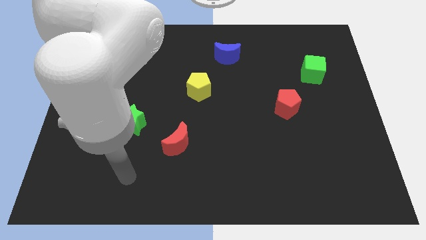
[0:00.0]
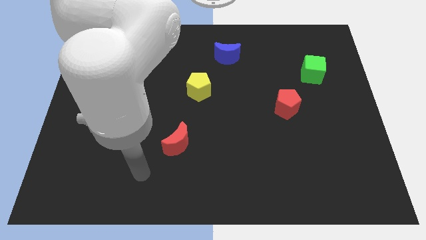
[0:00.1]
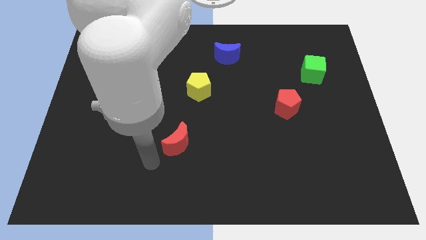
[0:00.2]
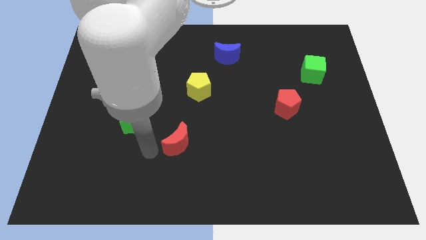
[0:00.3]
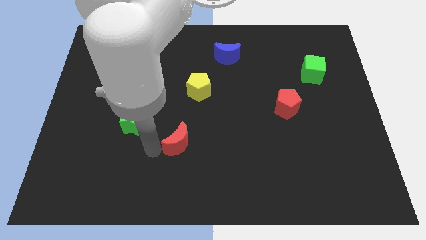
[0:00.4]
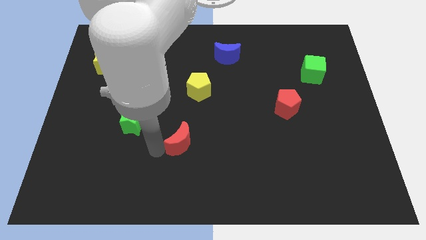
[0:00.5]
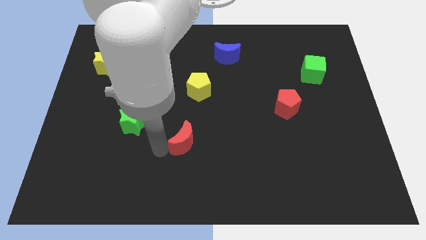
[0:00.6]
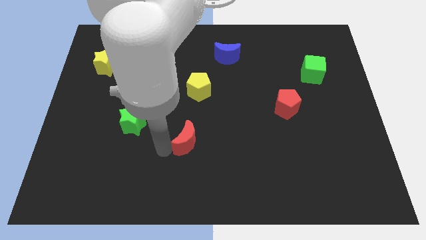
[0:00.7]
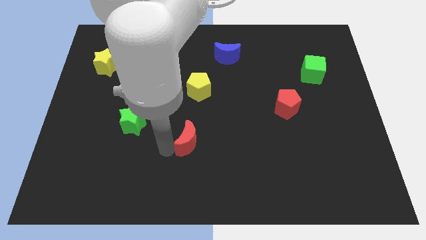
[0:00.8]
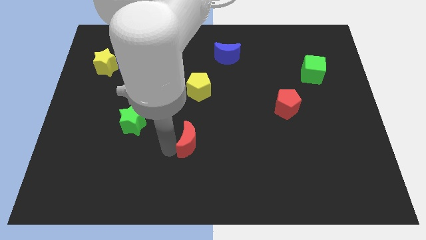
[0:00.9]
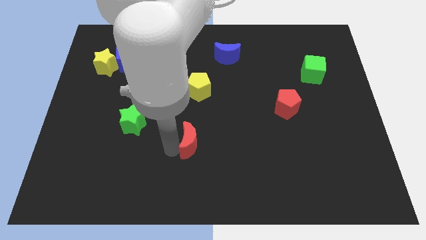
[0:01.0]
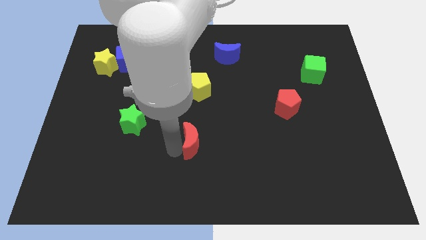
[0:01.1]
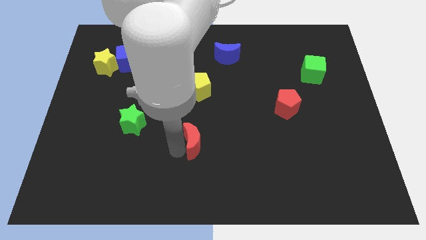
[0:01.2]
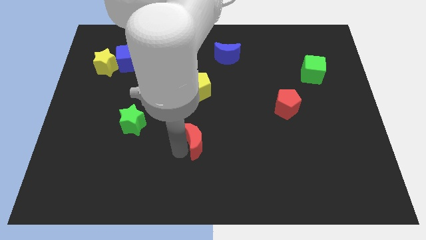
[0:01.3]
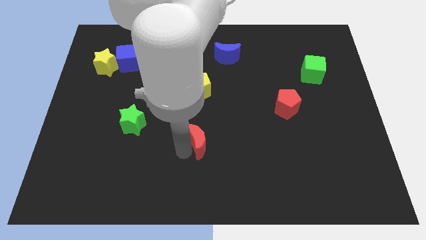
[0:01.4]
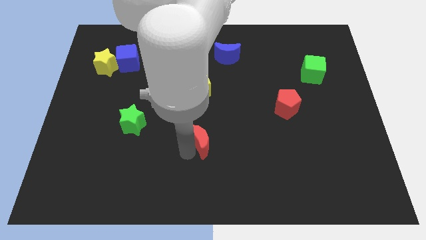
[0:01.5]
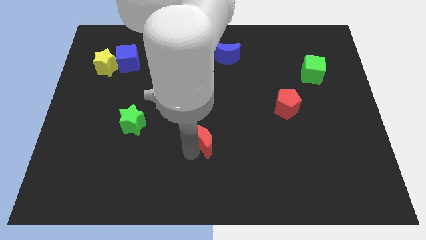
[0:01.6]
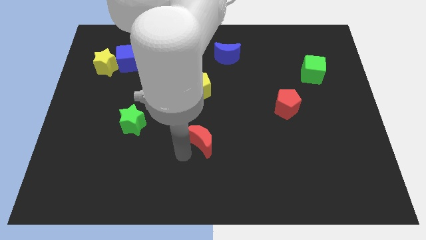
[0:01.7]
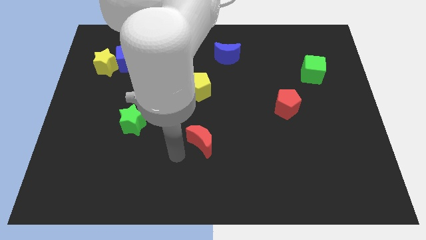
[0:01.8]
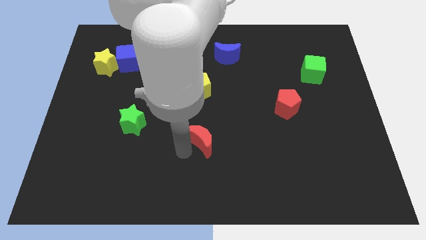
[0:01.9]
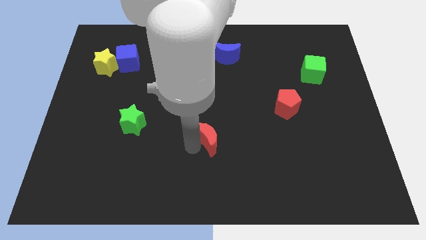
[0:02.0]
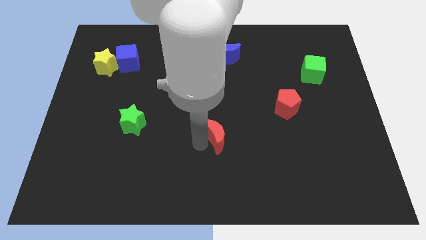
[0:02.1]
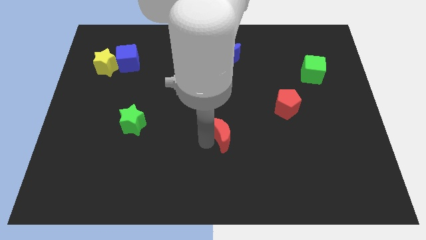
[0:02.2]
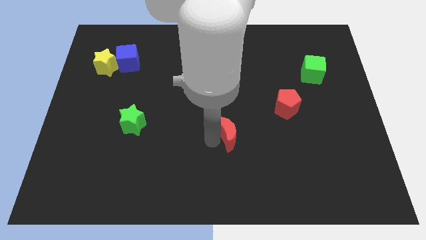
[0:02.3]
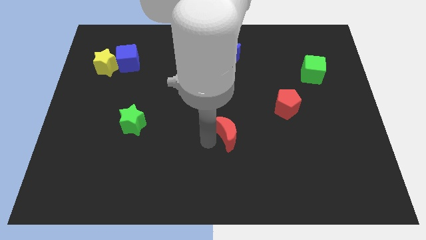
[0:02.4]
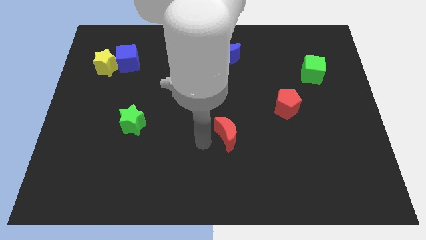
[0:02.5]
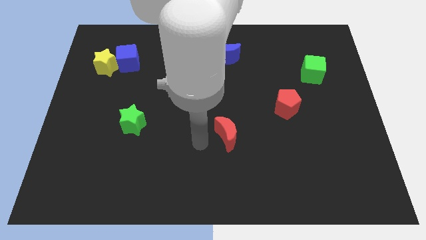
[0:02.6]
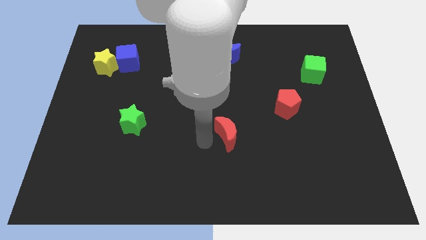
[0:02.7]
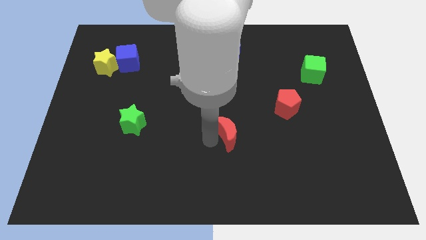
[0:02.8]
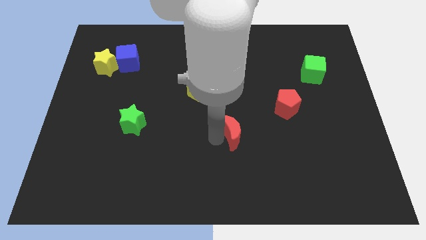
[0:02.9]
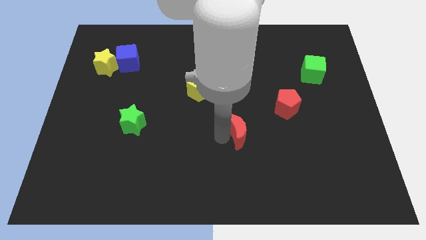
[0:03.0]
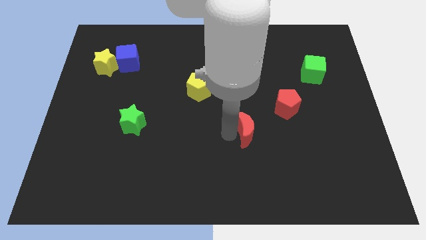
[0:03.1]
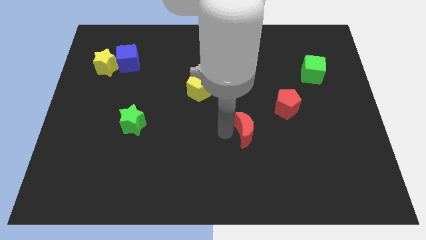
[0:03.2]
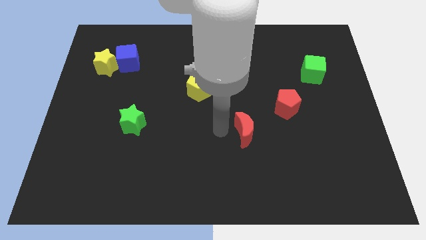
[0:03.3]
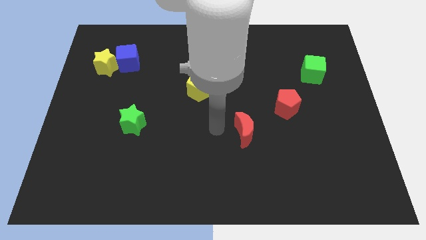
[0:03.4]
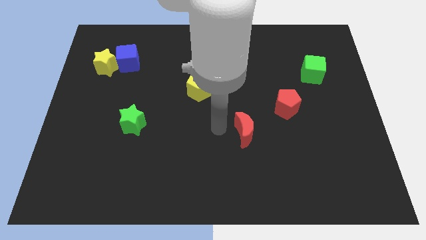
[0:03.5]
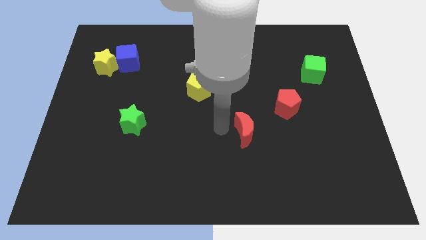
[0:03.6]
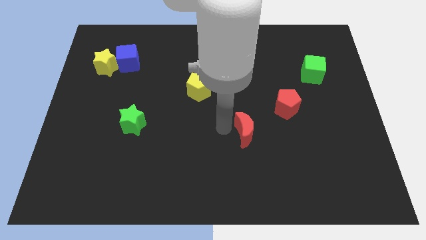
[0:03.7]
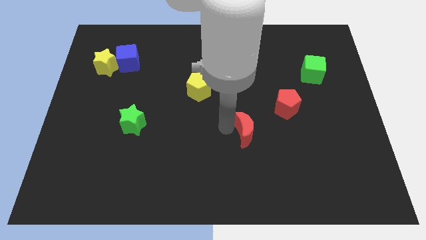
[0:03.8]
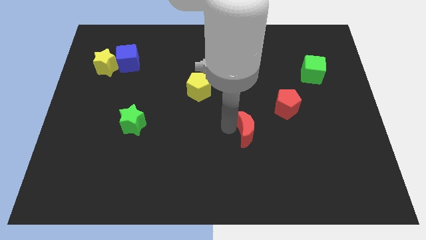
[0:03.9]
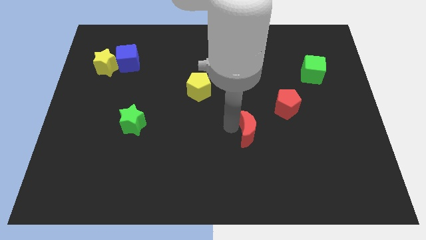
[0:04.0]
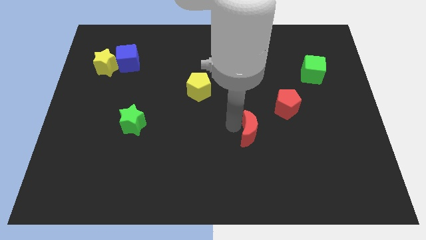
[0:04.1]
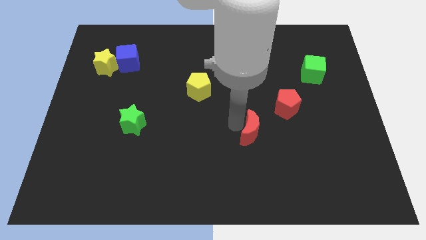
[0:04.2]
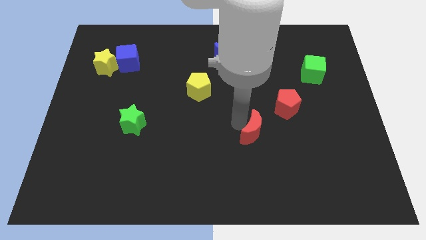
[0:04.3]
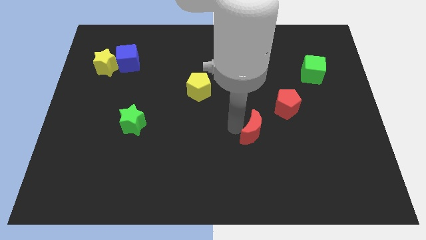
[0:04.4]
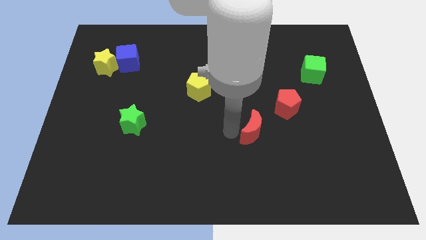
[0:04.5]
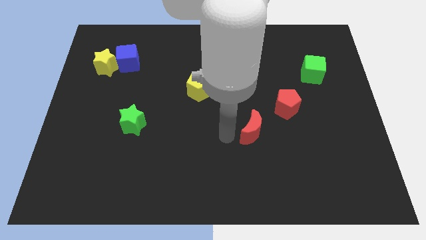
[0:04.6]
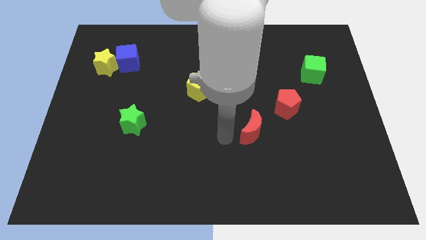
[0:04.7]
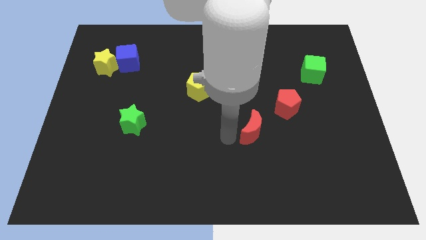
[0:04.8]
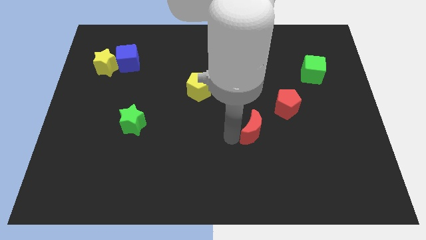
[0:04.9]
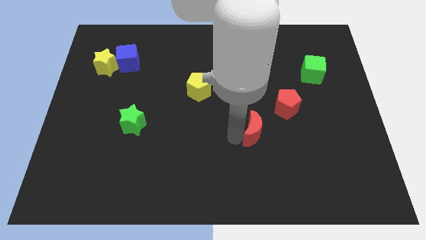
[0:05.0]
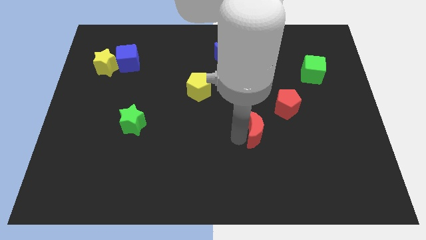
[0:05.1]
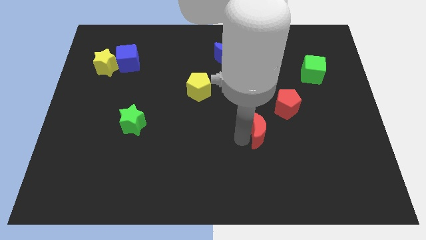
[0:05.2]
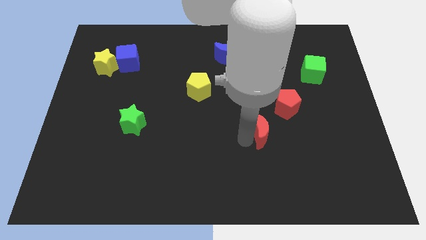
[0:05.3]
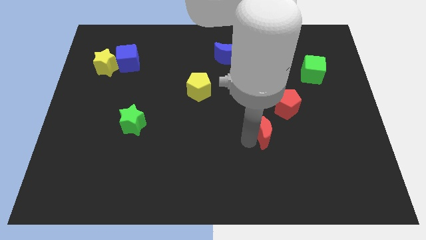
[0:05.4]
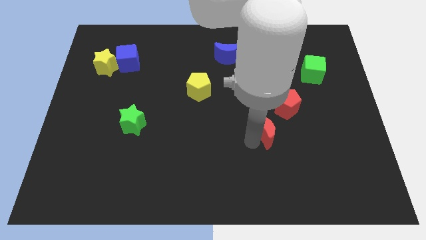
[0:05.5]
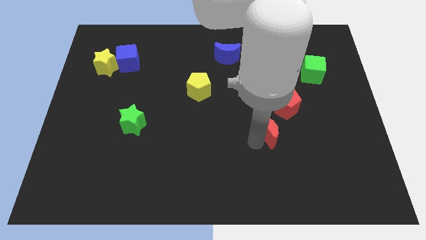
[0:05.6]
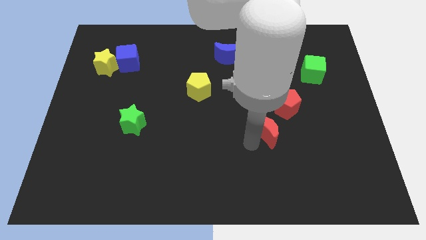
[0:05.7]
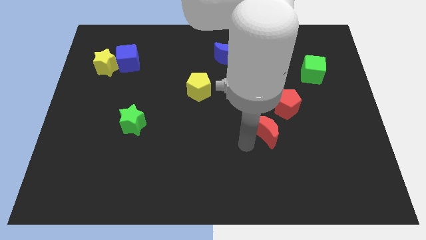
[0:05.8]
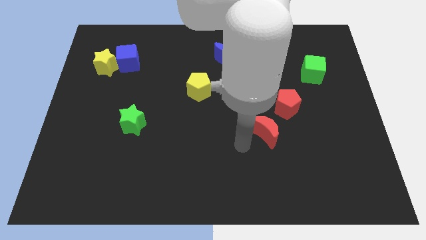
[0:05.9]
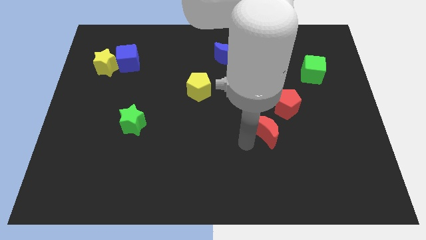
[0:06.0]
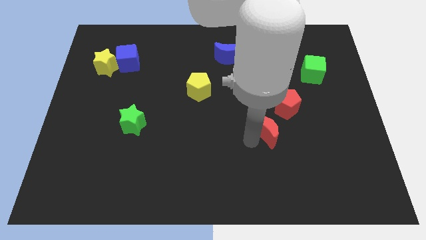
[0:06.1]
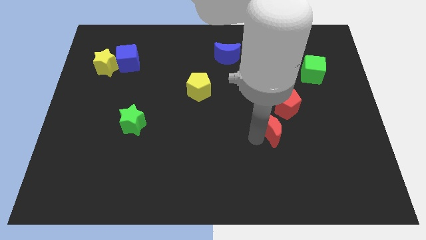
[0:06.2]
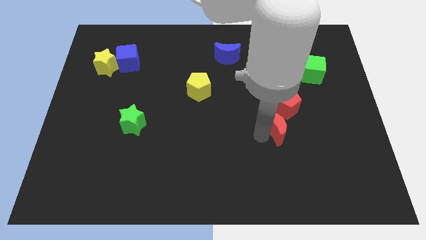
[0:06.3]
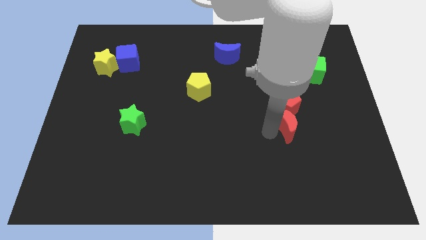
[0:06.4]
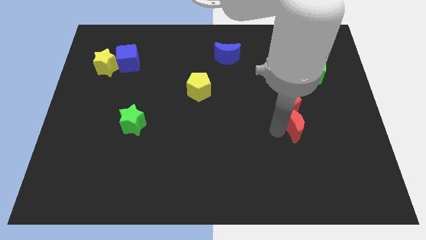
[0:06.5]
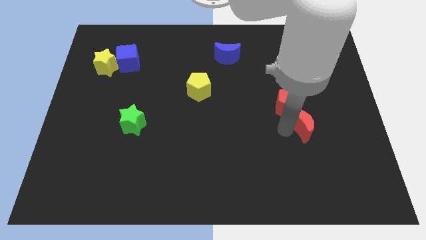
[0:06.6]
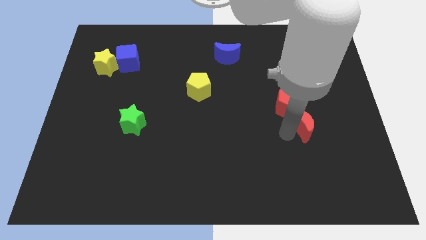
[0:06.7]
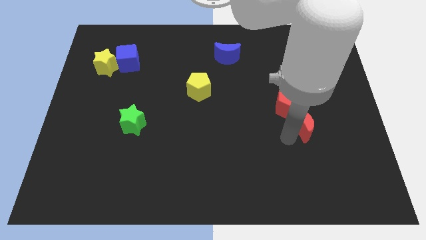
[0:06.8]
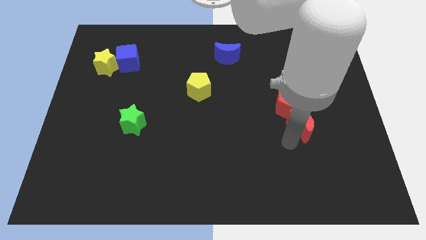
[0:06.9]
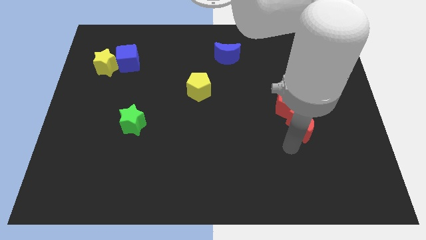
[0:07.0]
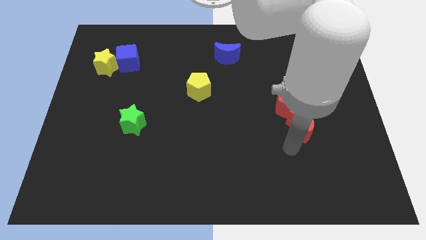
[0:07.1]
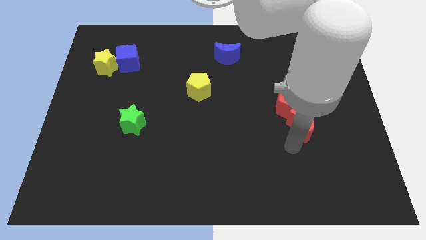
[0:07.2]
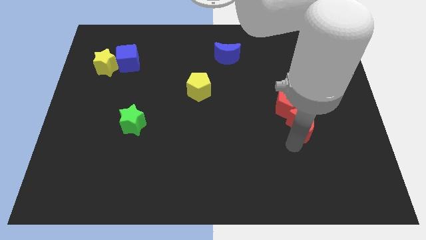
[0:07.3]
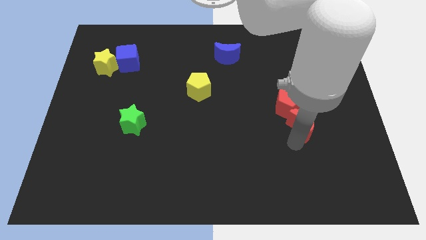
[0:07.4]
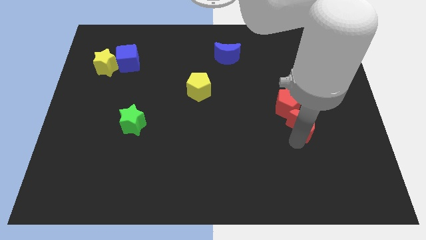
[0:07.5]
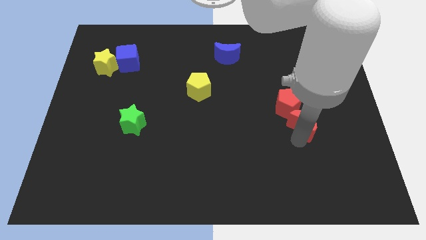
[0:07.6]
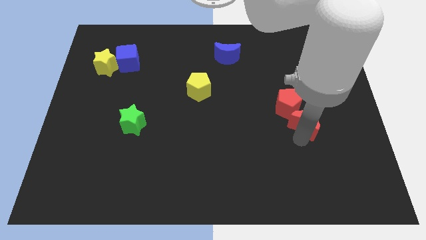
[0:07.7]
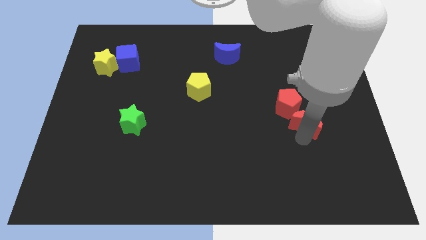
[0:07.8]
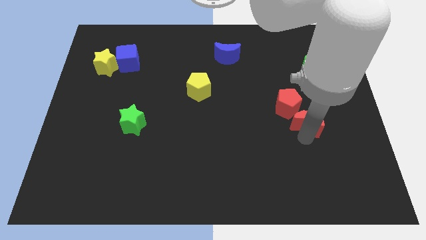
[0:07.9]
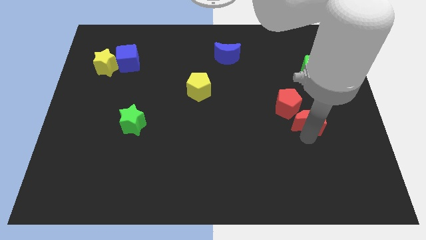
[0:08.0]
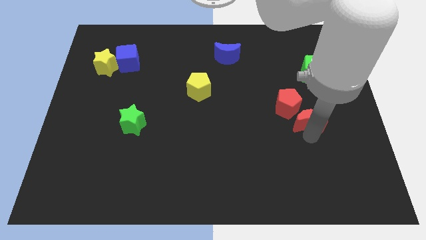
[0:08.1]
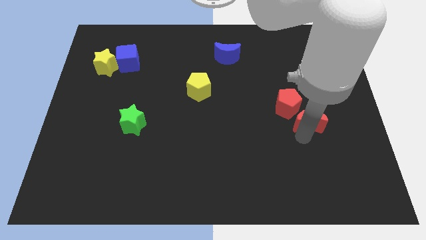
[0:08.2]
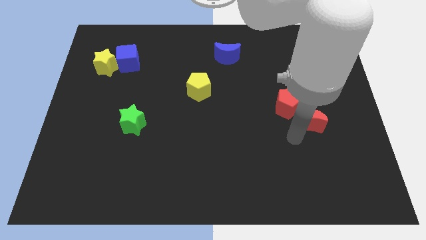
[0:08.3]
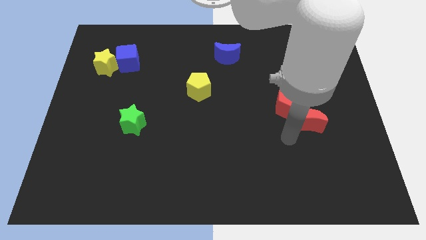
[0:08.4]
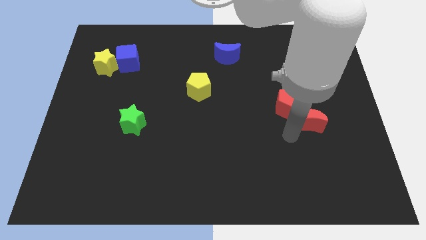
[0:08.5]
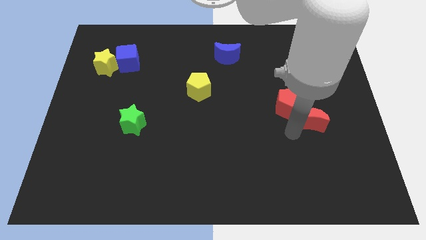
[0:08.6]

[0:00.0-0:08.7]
move the red moon just right of the red pentagon
